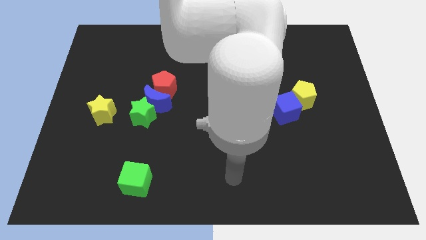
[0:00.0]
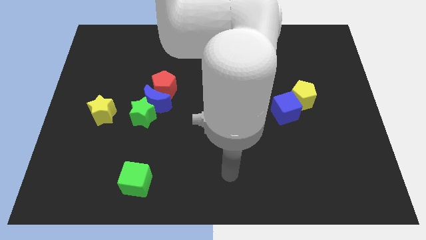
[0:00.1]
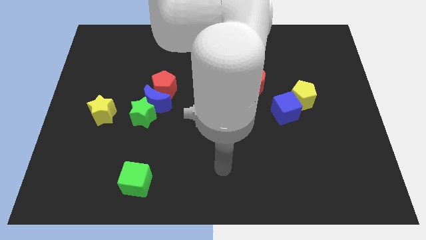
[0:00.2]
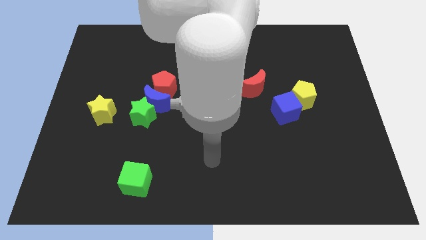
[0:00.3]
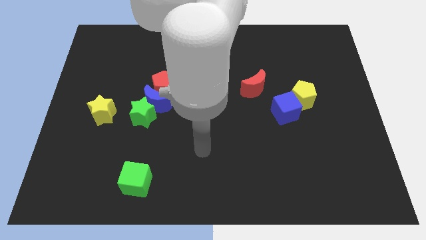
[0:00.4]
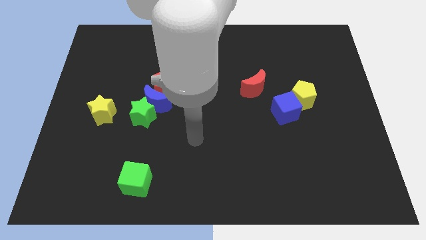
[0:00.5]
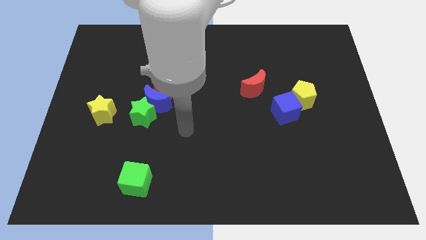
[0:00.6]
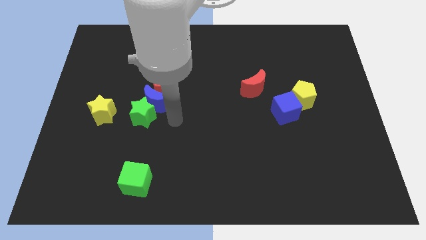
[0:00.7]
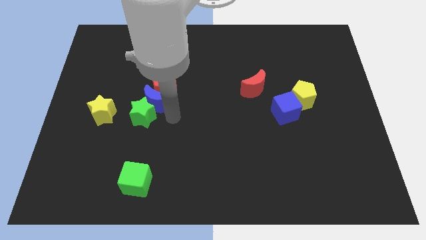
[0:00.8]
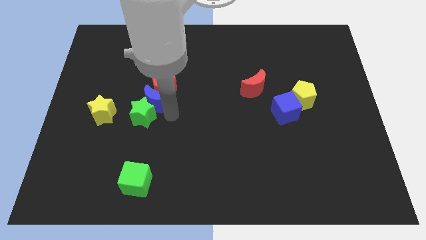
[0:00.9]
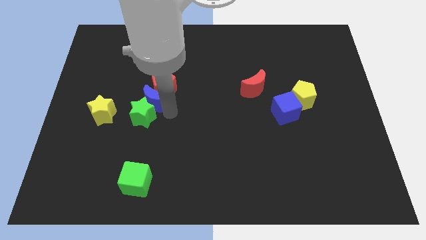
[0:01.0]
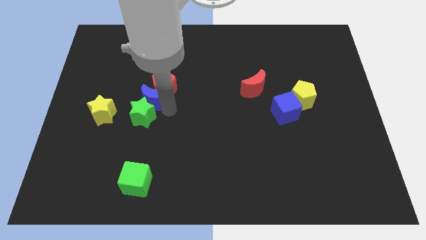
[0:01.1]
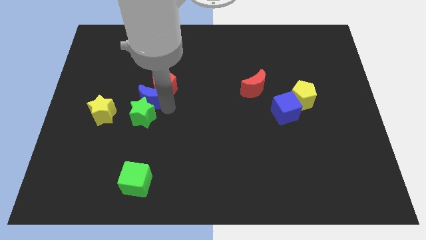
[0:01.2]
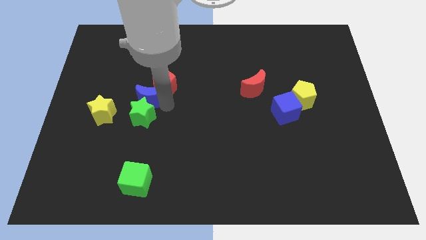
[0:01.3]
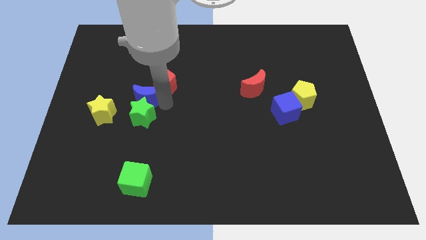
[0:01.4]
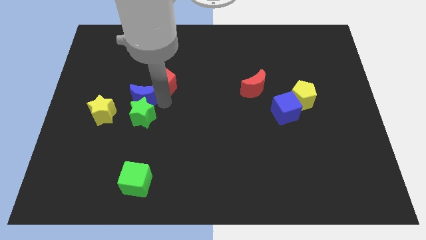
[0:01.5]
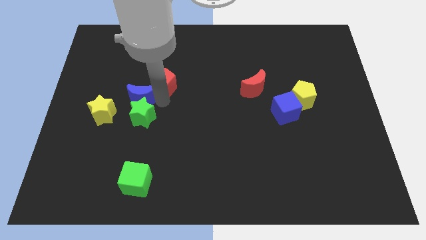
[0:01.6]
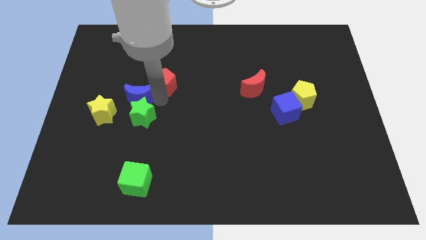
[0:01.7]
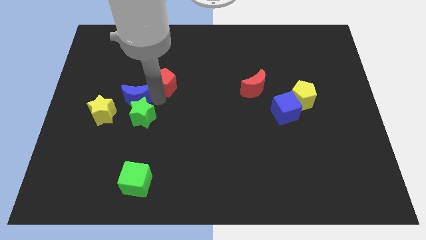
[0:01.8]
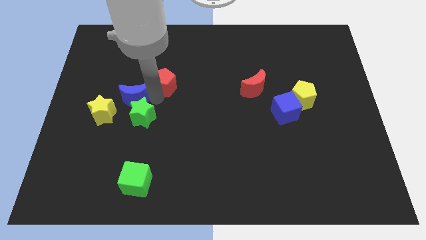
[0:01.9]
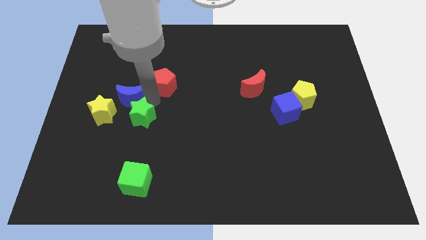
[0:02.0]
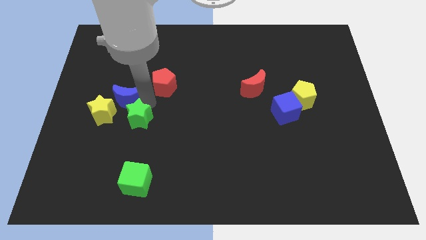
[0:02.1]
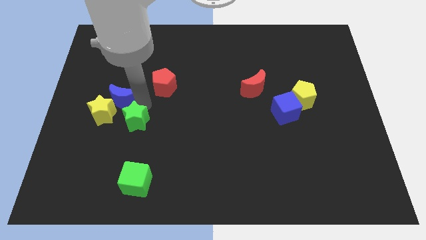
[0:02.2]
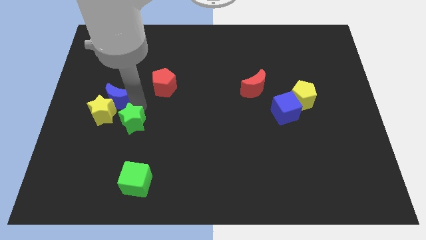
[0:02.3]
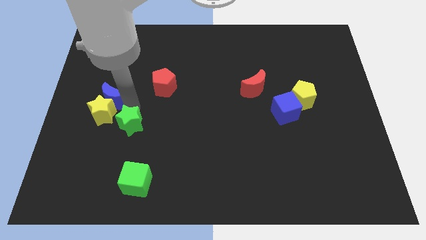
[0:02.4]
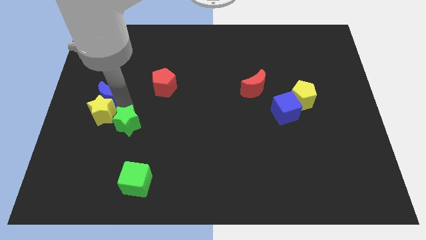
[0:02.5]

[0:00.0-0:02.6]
push the blue moon a bit up and to the left diagonally

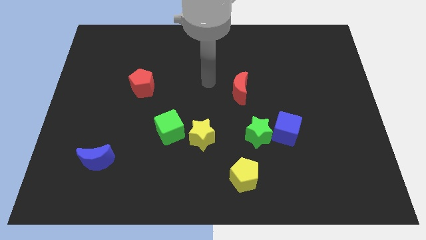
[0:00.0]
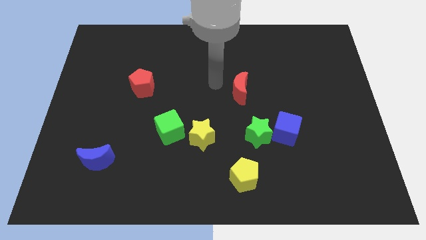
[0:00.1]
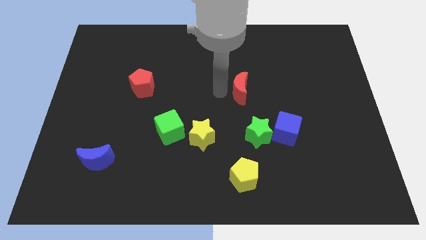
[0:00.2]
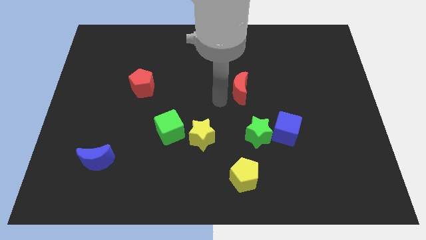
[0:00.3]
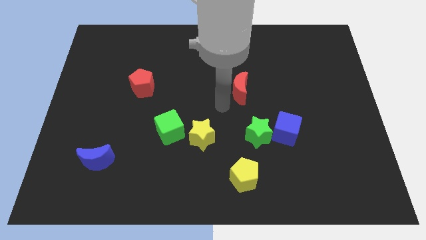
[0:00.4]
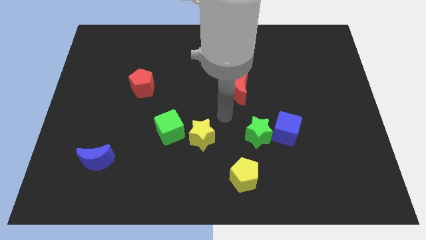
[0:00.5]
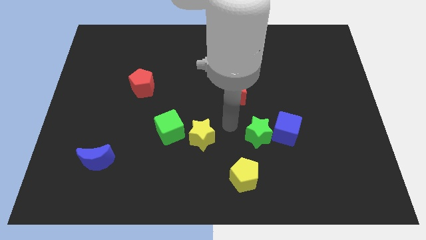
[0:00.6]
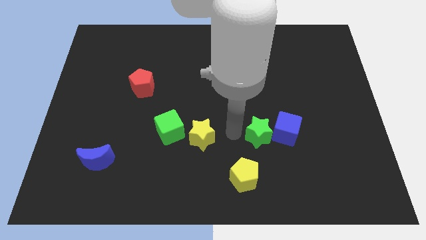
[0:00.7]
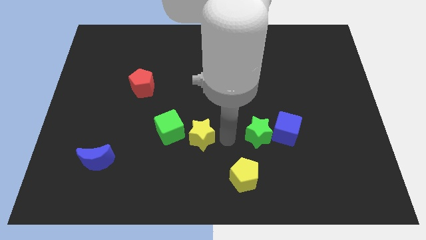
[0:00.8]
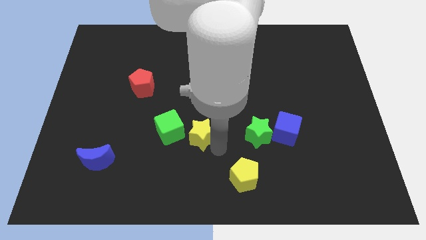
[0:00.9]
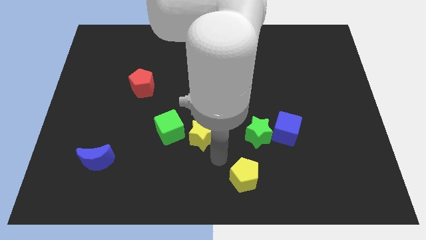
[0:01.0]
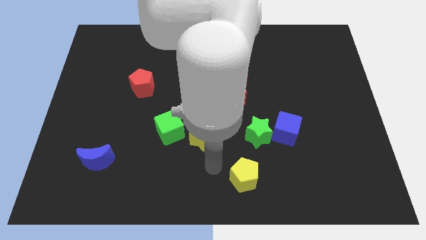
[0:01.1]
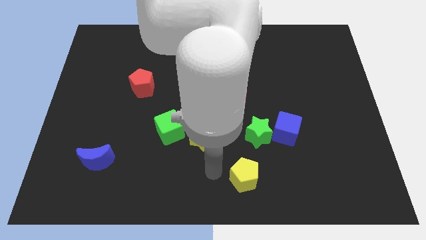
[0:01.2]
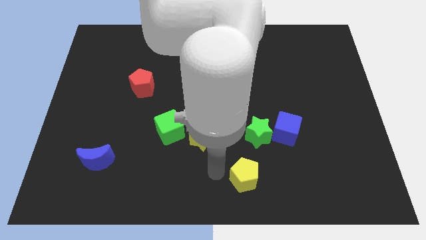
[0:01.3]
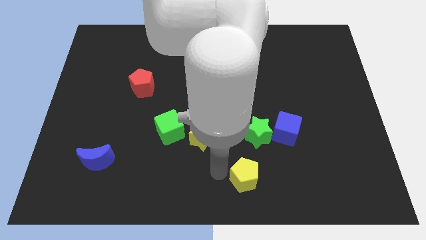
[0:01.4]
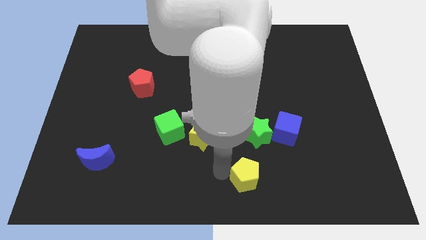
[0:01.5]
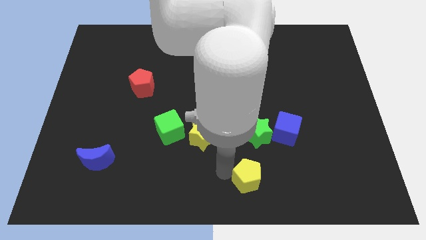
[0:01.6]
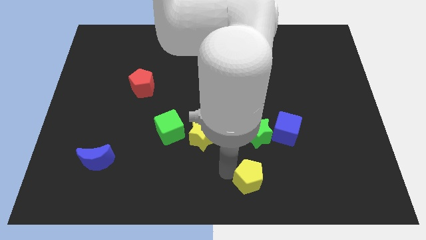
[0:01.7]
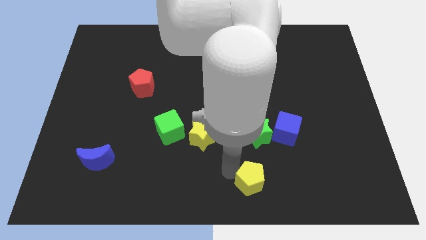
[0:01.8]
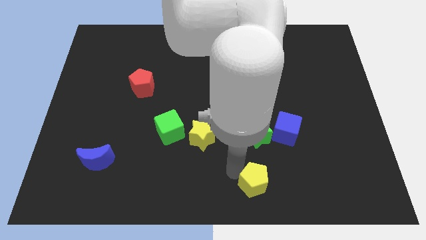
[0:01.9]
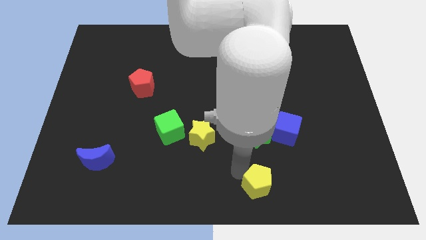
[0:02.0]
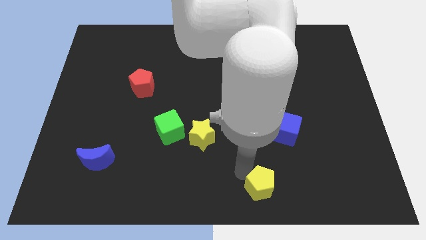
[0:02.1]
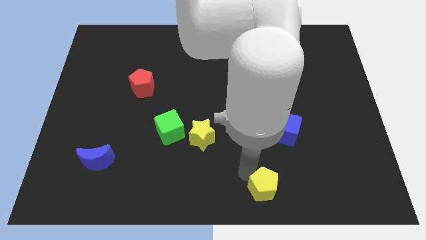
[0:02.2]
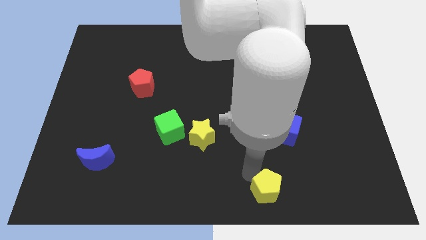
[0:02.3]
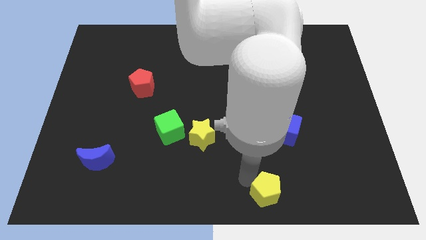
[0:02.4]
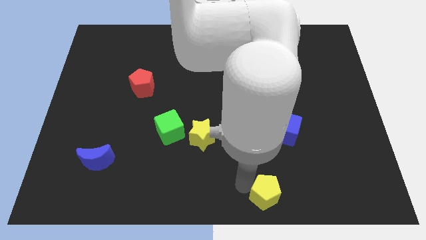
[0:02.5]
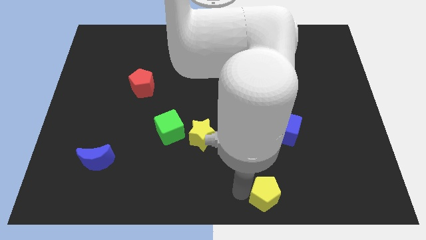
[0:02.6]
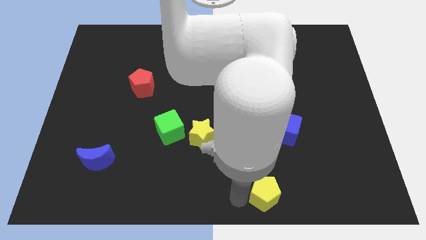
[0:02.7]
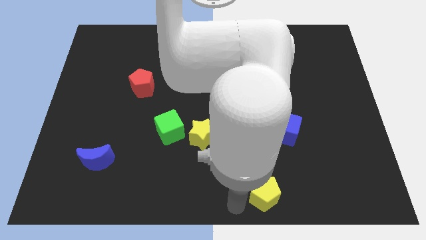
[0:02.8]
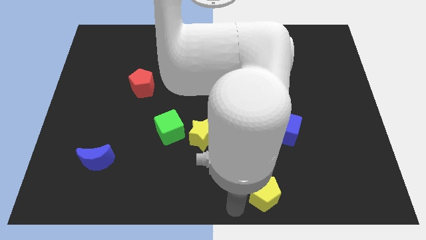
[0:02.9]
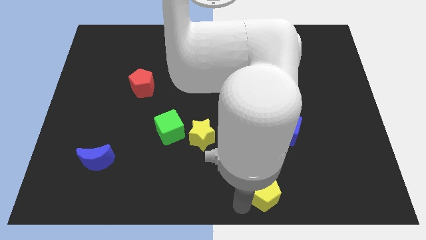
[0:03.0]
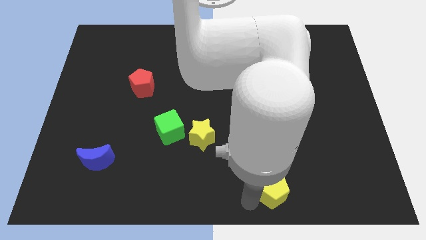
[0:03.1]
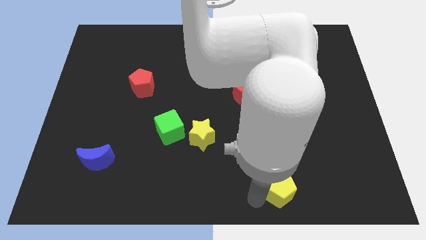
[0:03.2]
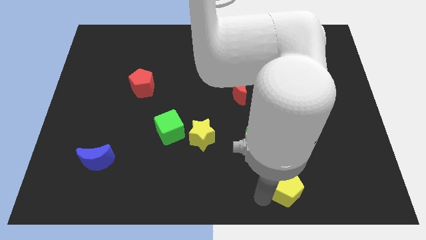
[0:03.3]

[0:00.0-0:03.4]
push the yellow pentagon somewhat to the right

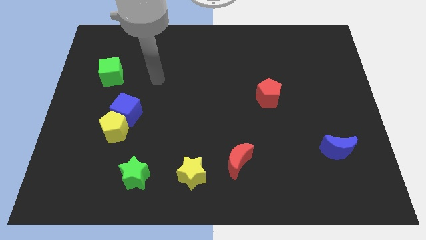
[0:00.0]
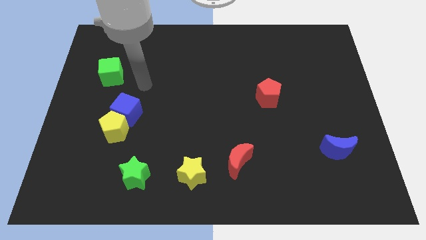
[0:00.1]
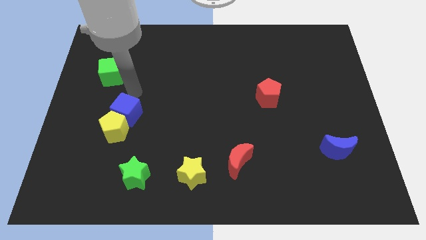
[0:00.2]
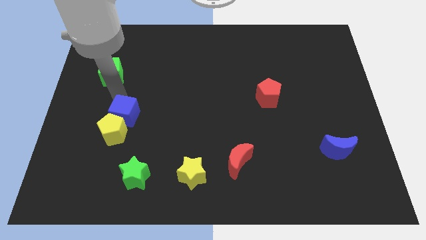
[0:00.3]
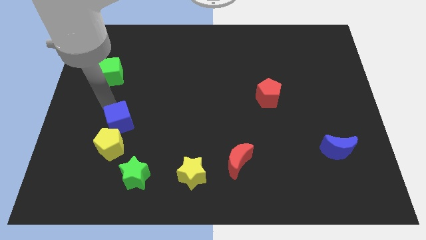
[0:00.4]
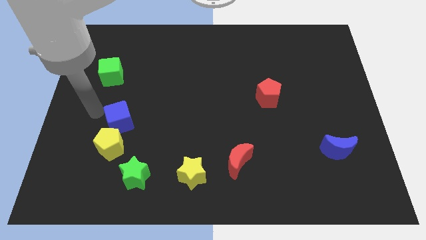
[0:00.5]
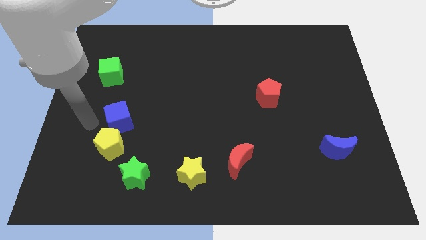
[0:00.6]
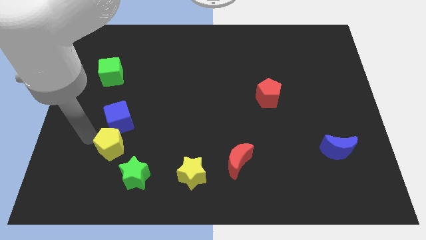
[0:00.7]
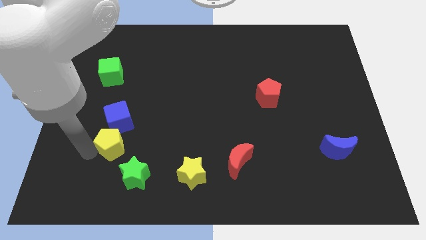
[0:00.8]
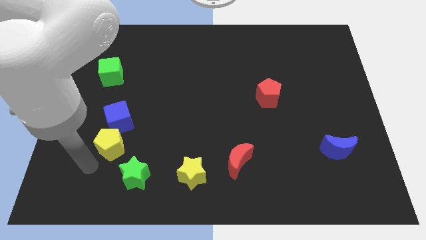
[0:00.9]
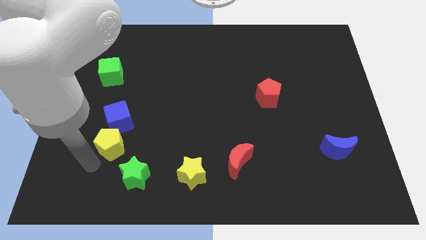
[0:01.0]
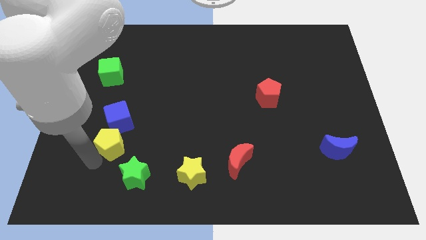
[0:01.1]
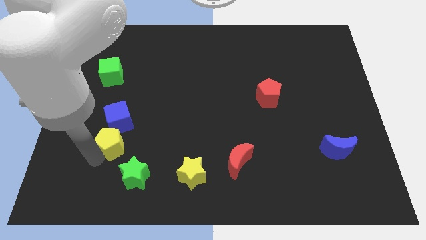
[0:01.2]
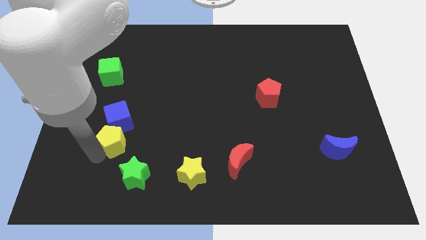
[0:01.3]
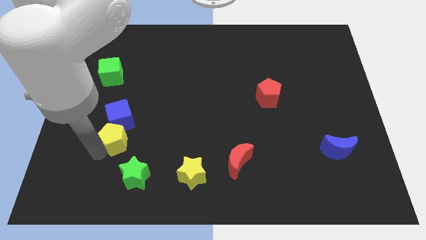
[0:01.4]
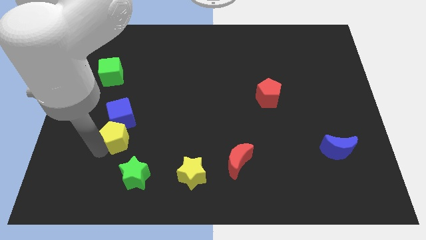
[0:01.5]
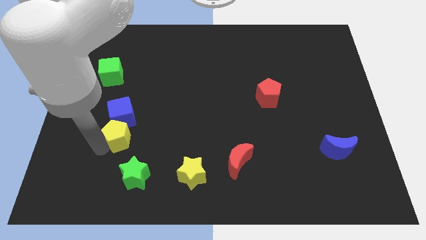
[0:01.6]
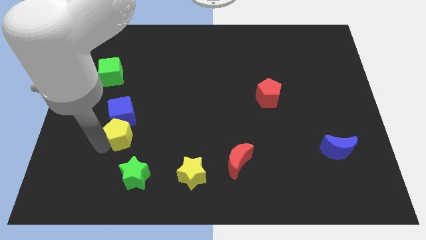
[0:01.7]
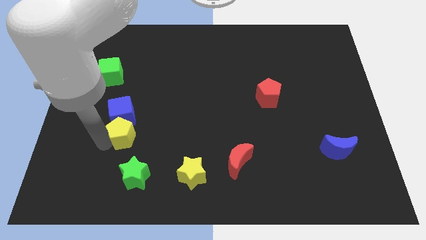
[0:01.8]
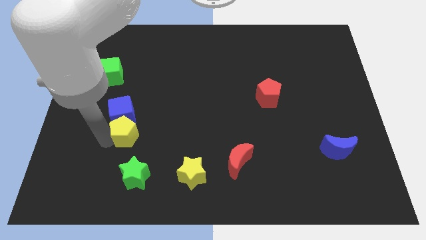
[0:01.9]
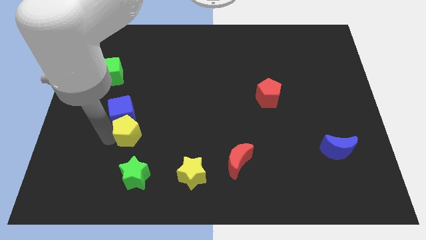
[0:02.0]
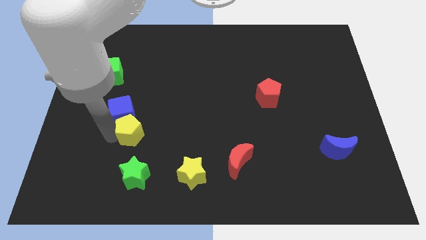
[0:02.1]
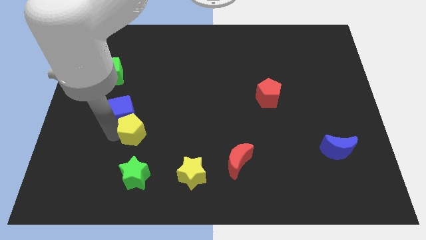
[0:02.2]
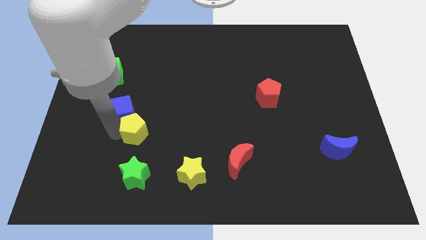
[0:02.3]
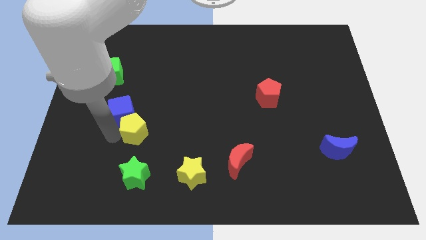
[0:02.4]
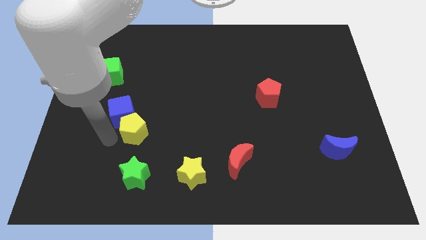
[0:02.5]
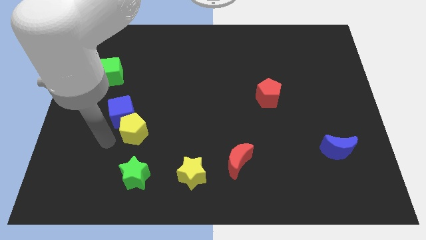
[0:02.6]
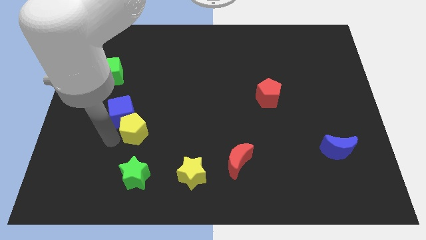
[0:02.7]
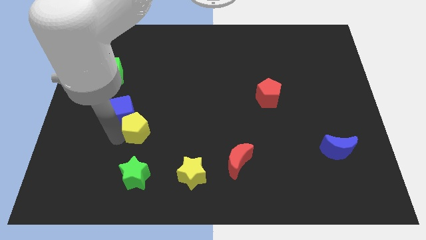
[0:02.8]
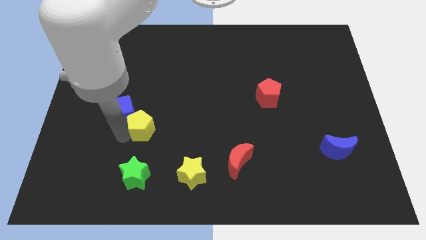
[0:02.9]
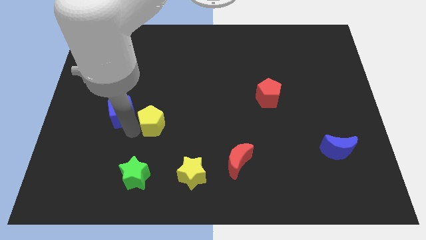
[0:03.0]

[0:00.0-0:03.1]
push the yellow pentagon a little bit right
